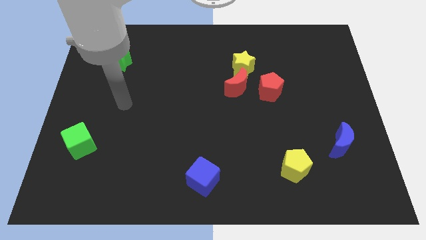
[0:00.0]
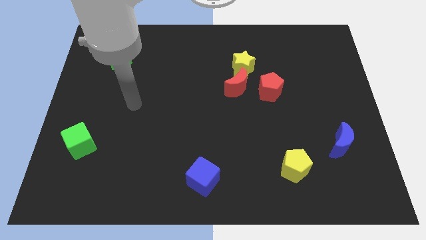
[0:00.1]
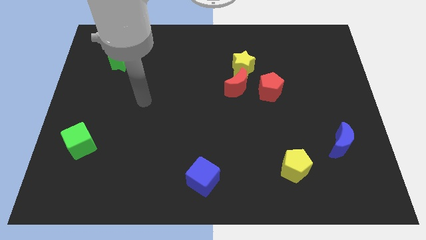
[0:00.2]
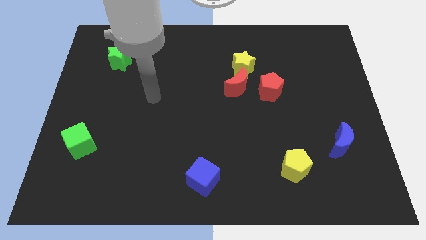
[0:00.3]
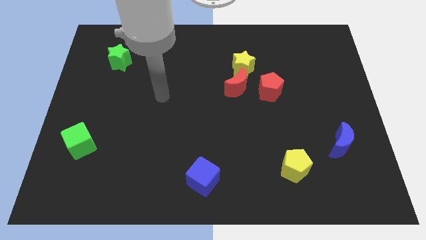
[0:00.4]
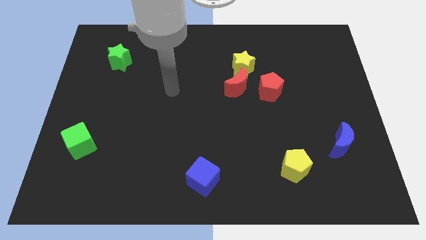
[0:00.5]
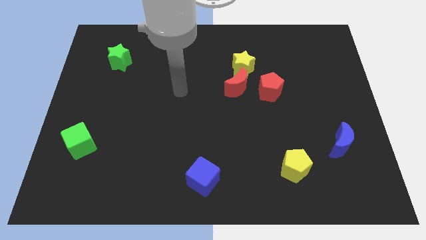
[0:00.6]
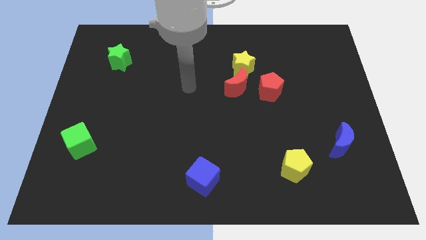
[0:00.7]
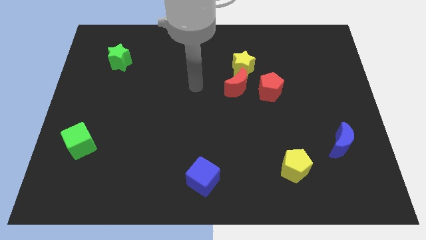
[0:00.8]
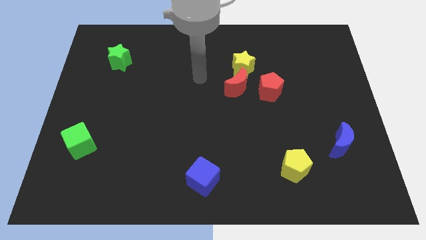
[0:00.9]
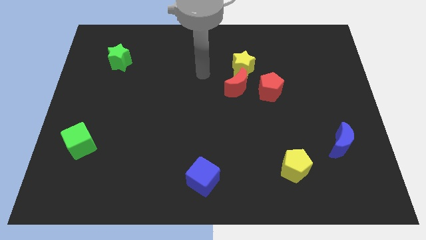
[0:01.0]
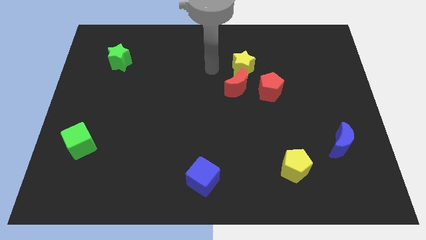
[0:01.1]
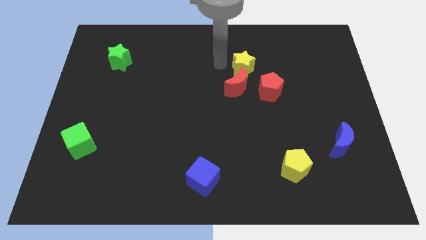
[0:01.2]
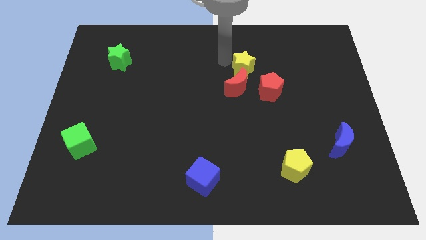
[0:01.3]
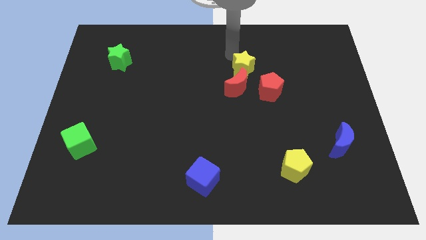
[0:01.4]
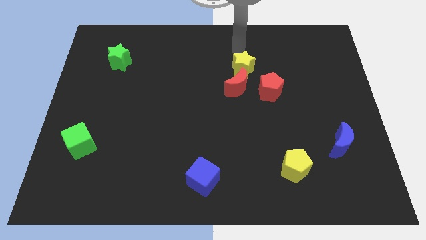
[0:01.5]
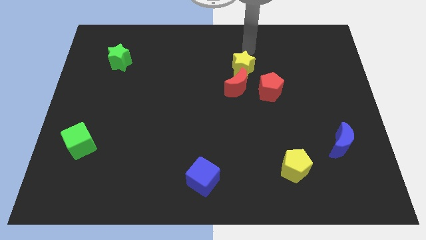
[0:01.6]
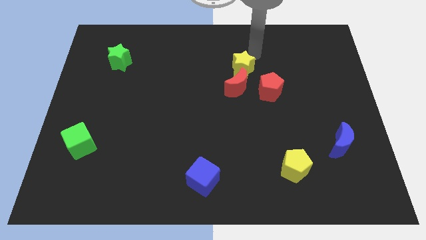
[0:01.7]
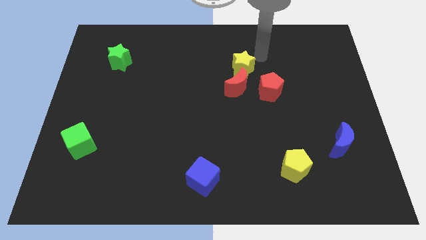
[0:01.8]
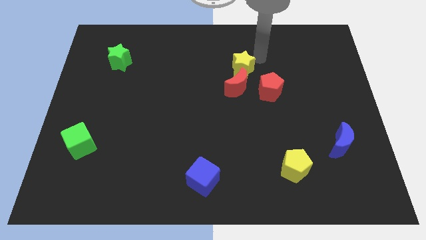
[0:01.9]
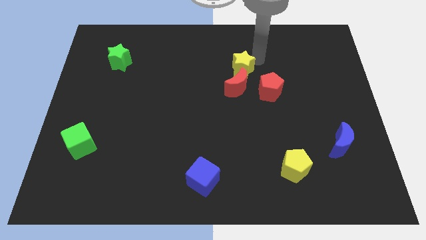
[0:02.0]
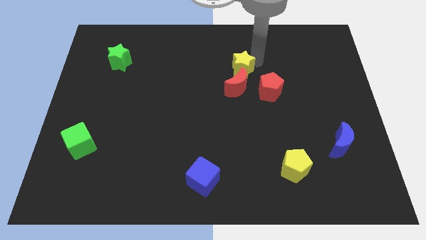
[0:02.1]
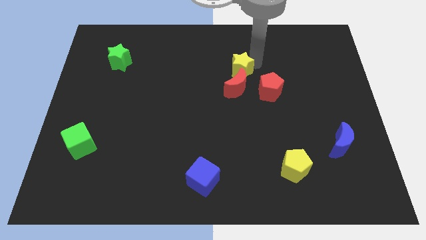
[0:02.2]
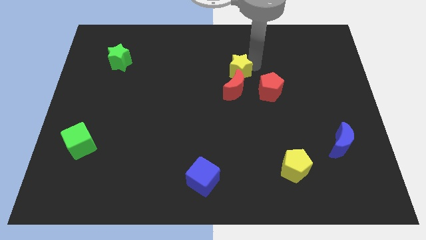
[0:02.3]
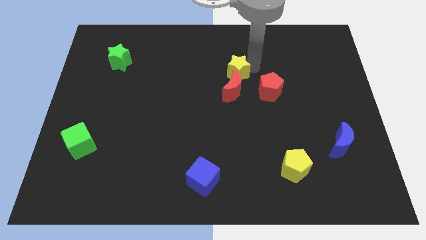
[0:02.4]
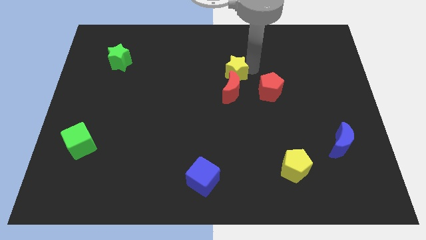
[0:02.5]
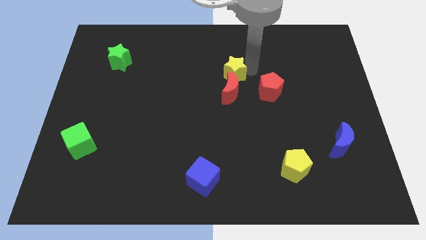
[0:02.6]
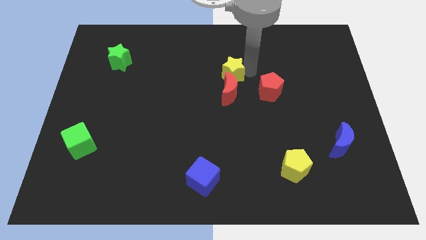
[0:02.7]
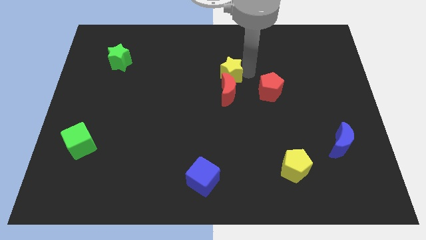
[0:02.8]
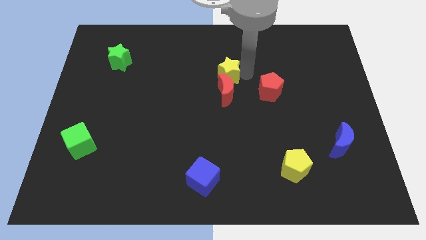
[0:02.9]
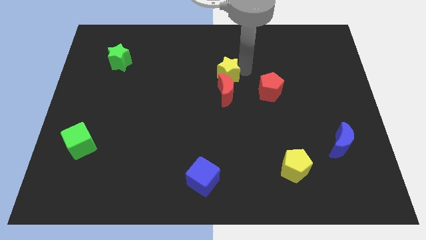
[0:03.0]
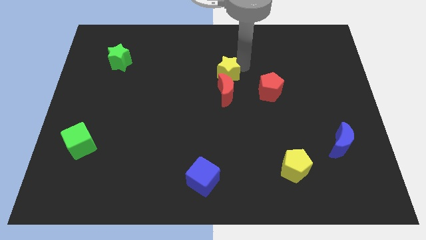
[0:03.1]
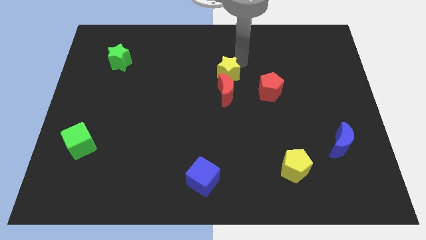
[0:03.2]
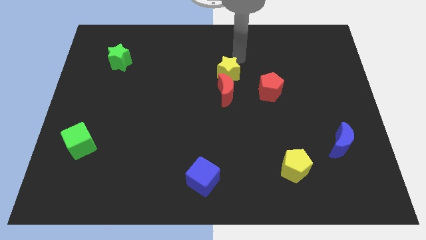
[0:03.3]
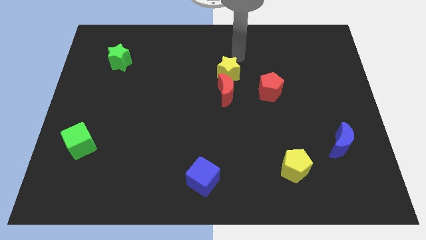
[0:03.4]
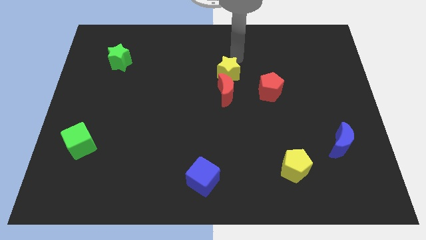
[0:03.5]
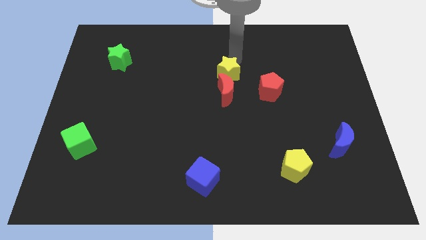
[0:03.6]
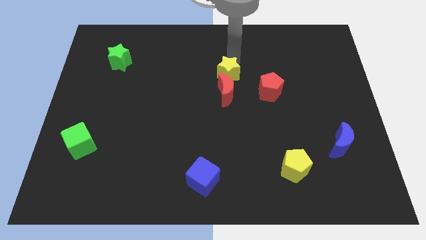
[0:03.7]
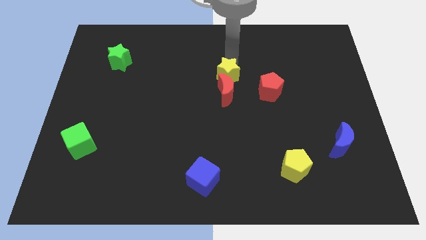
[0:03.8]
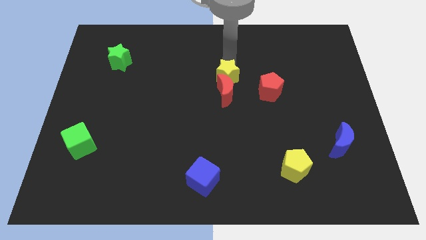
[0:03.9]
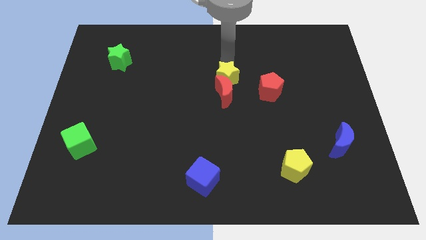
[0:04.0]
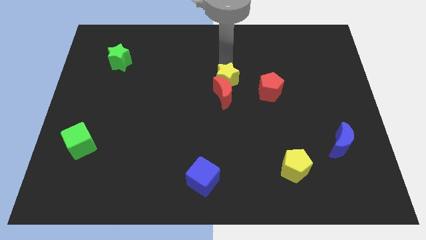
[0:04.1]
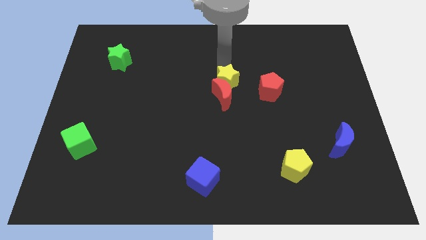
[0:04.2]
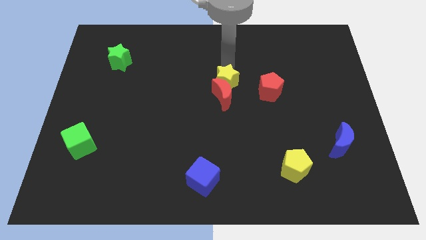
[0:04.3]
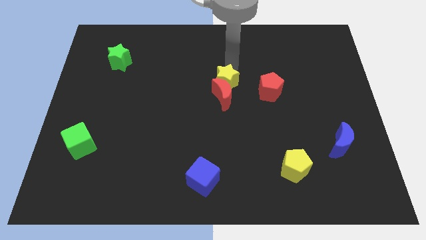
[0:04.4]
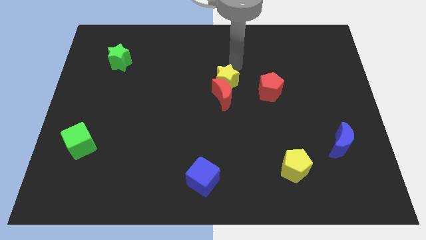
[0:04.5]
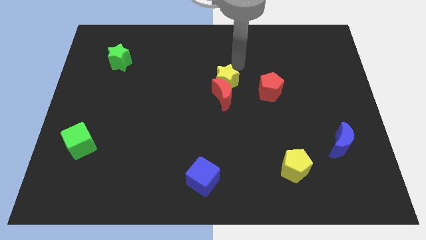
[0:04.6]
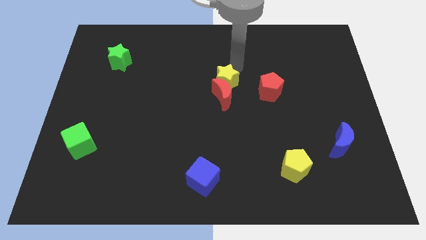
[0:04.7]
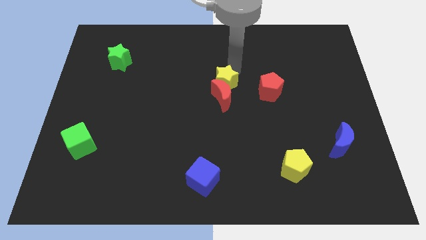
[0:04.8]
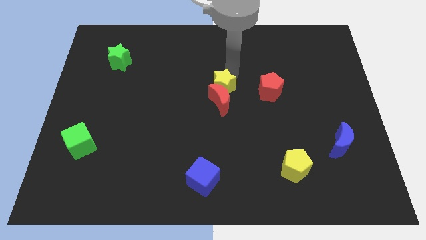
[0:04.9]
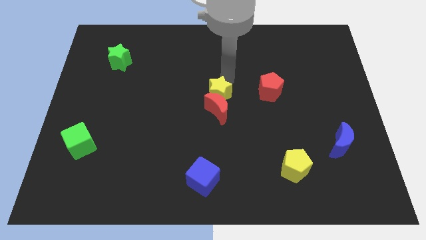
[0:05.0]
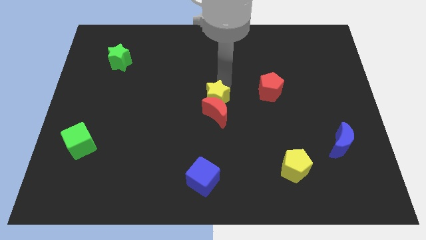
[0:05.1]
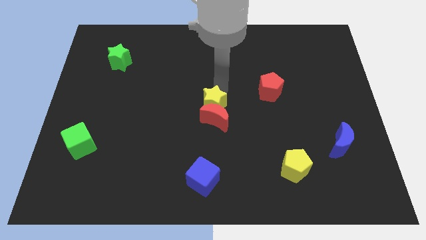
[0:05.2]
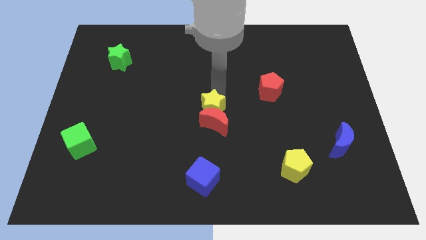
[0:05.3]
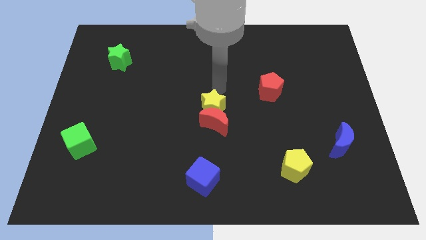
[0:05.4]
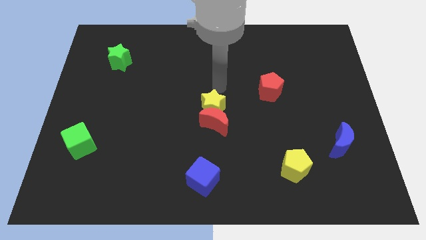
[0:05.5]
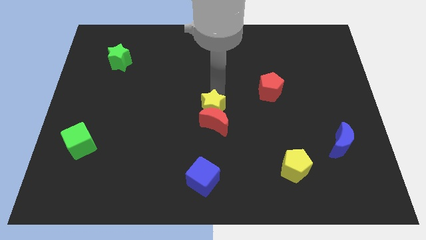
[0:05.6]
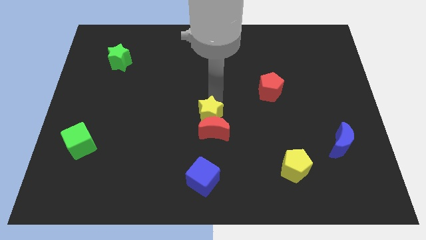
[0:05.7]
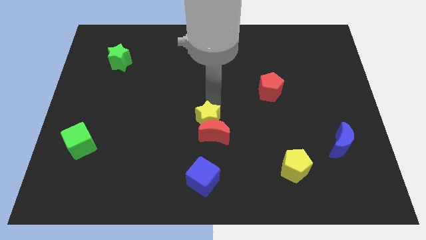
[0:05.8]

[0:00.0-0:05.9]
push the yellow star above the blue cube

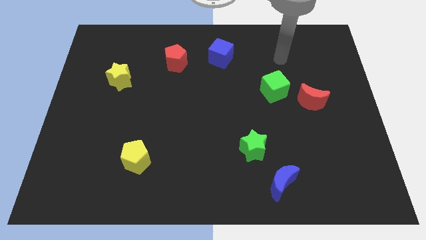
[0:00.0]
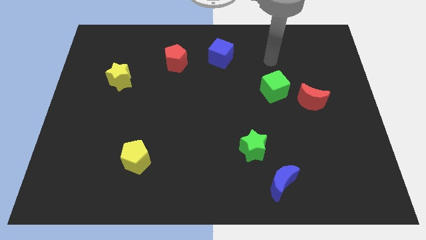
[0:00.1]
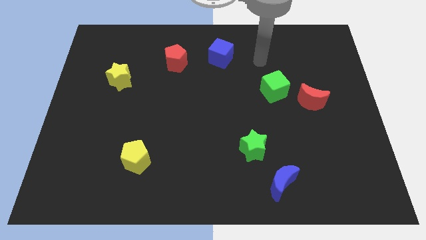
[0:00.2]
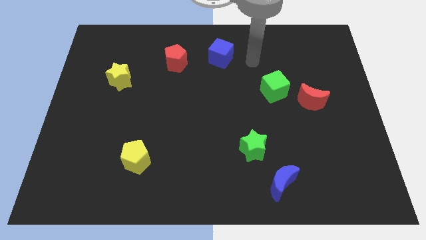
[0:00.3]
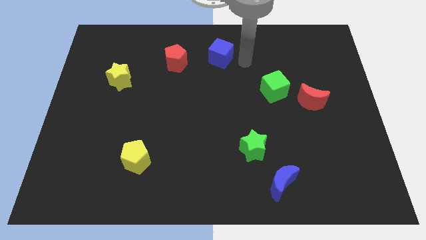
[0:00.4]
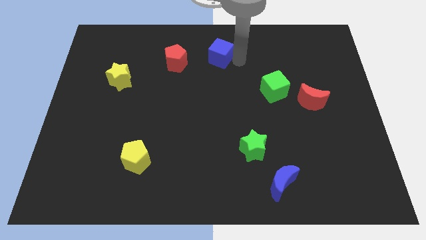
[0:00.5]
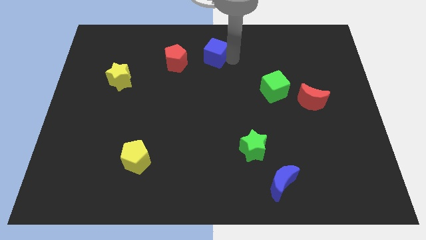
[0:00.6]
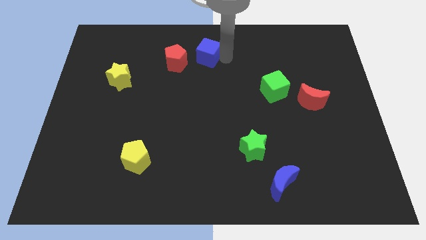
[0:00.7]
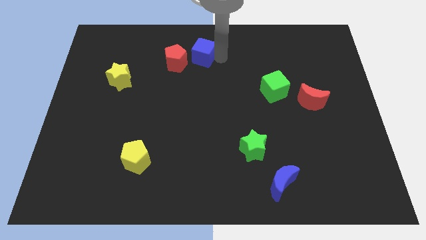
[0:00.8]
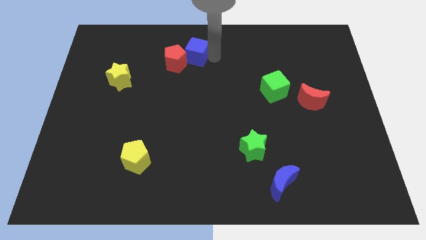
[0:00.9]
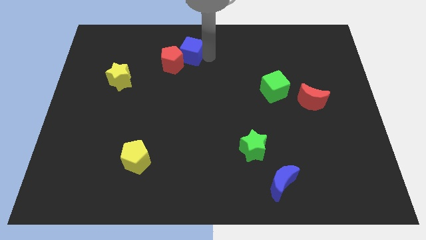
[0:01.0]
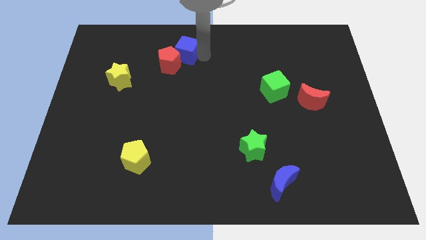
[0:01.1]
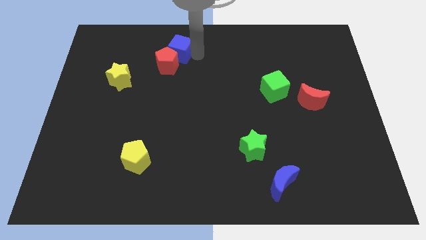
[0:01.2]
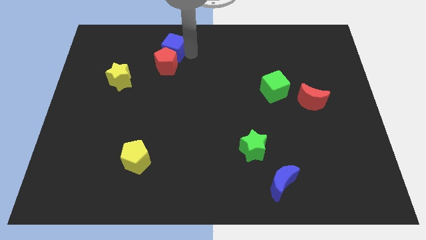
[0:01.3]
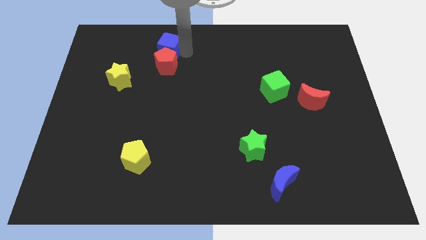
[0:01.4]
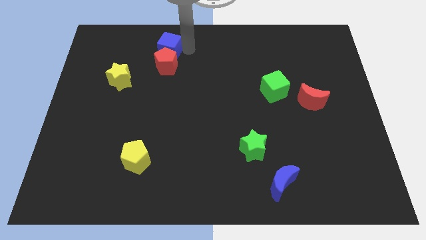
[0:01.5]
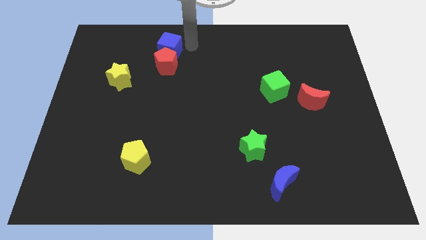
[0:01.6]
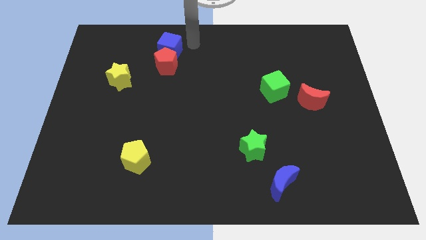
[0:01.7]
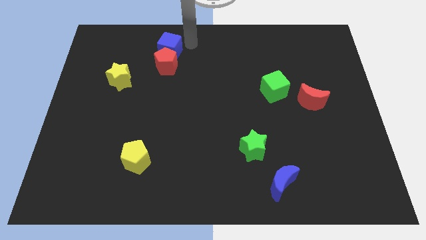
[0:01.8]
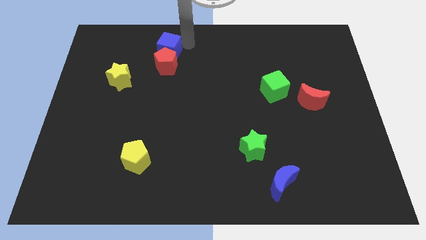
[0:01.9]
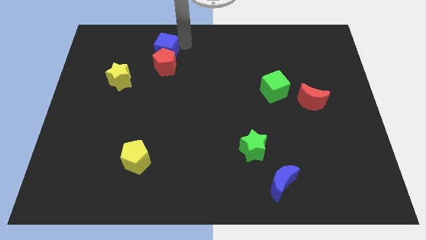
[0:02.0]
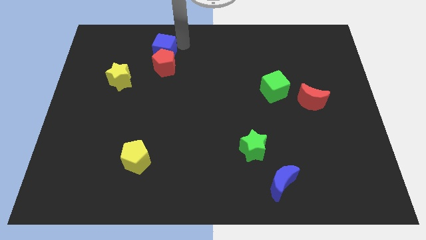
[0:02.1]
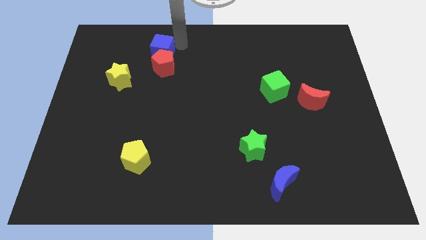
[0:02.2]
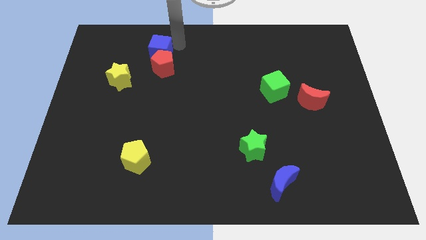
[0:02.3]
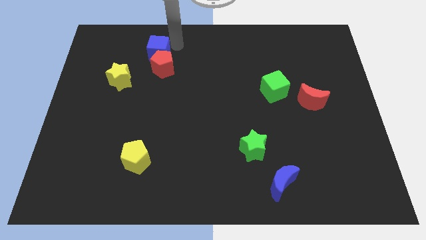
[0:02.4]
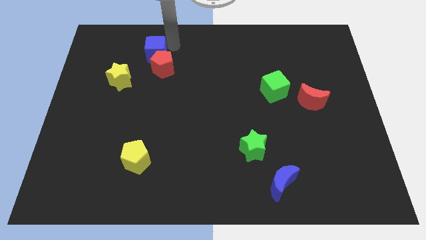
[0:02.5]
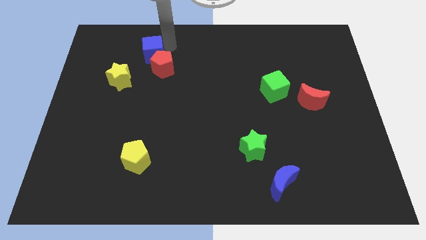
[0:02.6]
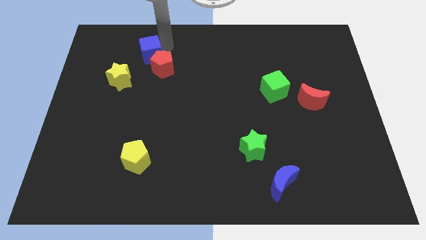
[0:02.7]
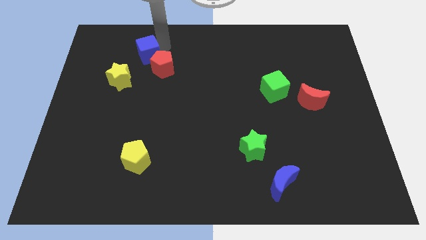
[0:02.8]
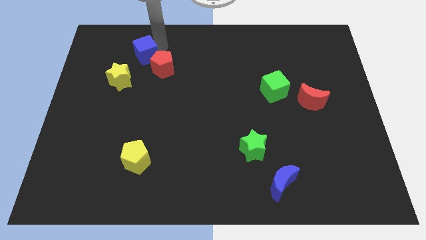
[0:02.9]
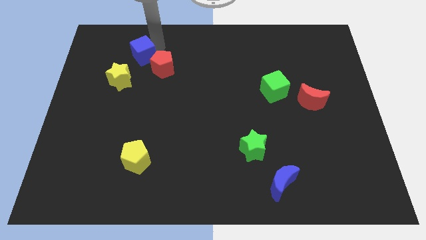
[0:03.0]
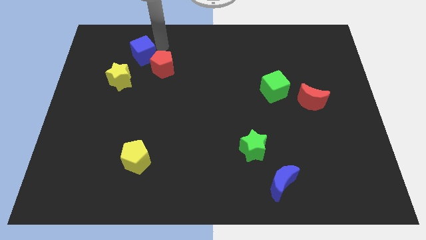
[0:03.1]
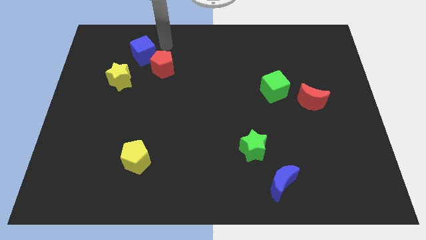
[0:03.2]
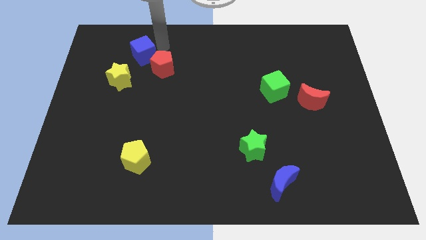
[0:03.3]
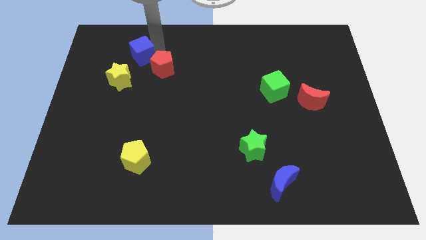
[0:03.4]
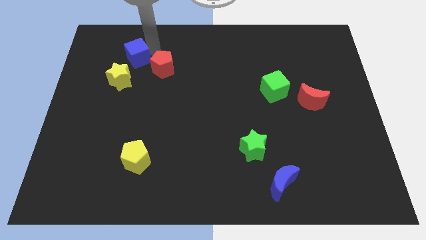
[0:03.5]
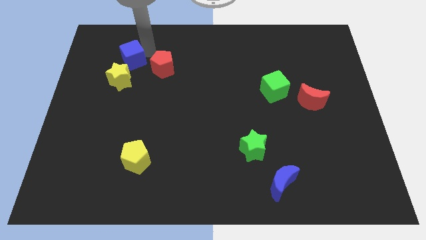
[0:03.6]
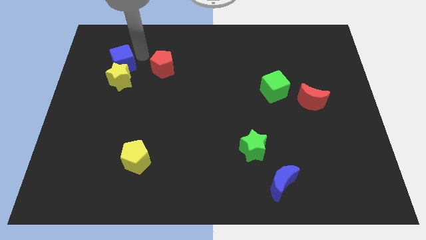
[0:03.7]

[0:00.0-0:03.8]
move the blue cube to the top left of the yellow star
